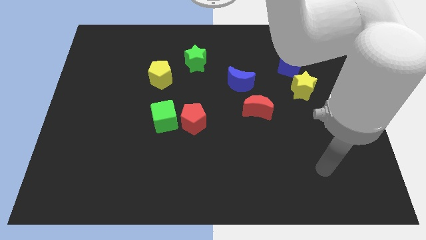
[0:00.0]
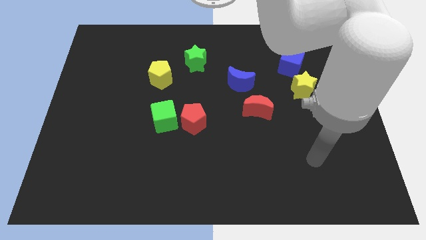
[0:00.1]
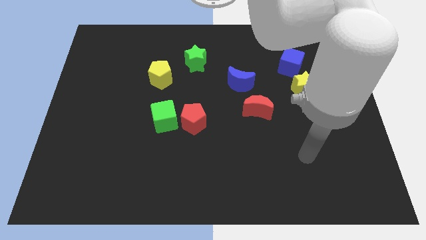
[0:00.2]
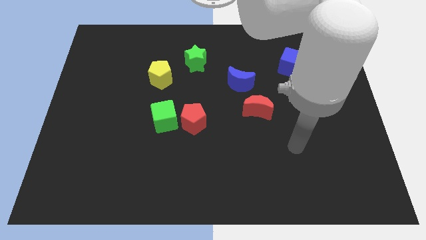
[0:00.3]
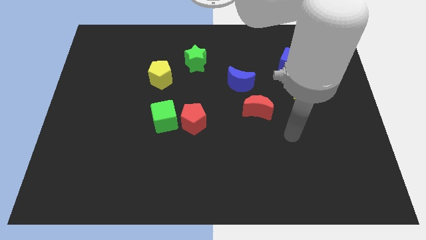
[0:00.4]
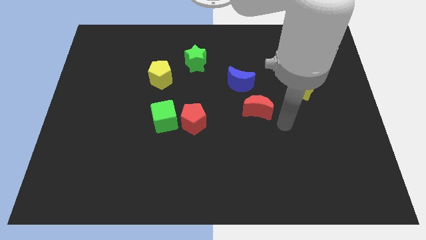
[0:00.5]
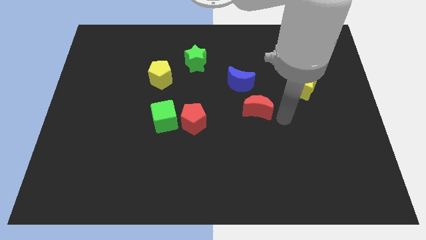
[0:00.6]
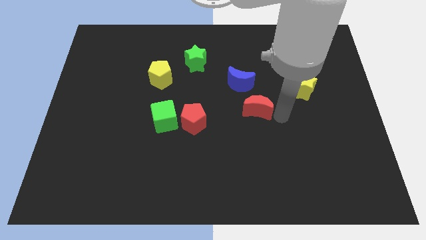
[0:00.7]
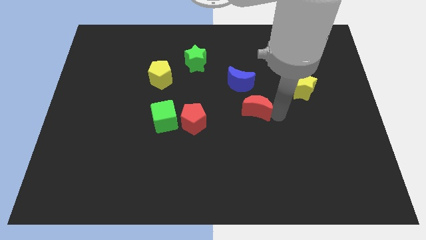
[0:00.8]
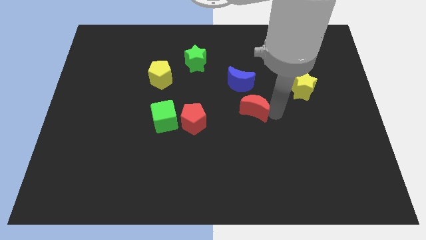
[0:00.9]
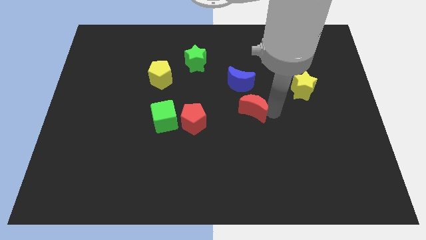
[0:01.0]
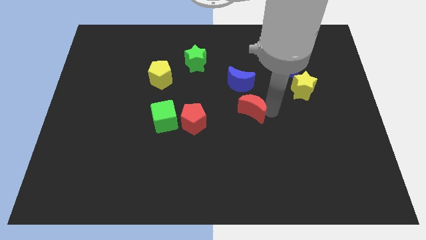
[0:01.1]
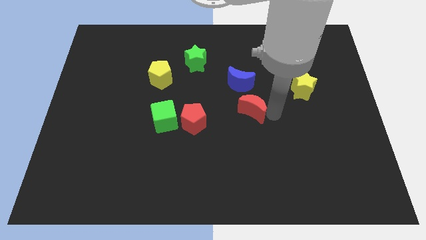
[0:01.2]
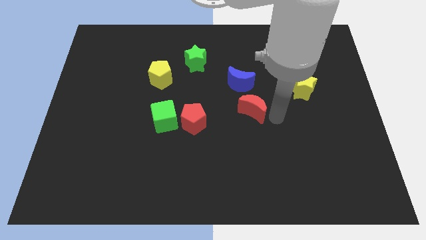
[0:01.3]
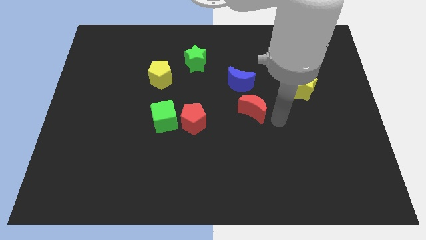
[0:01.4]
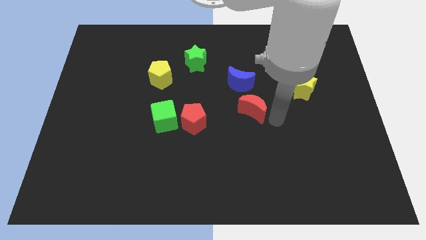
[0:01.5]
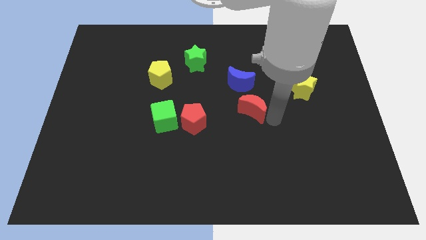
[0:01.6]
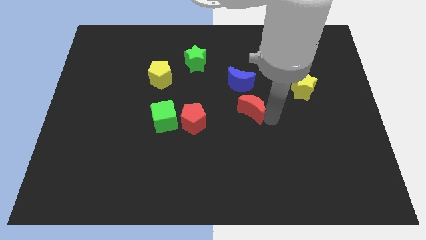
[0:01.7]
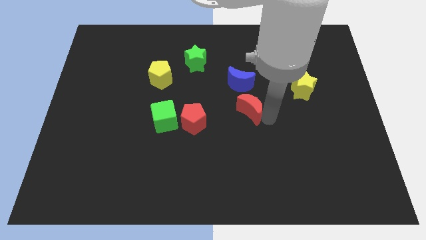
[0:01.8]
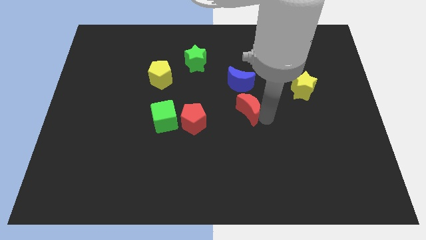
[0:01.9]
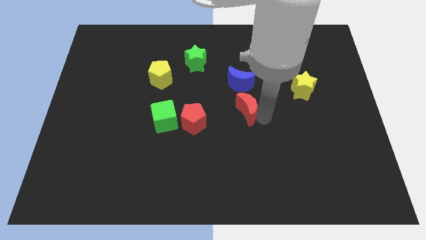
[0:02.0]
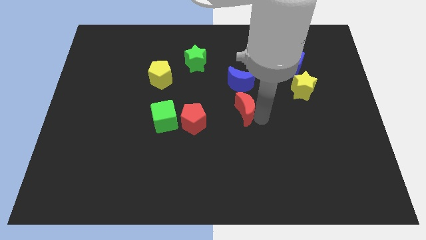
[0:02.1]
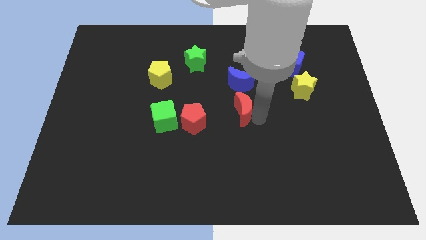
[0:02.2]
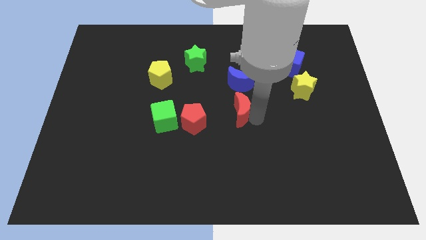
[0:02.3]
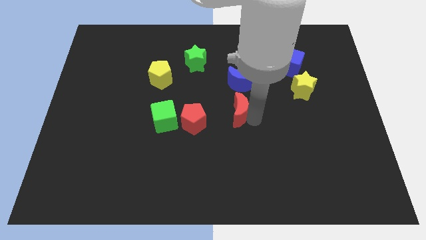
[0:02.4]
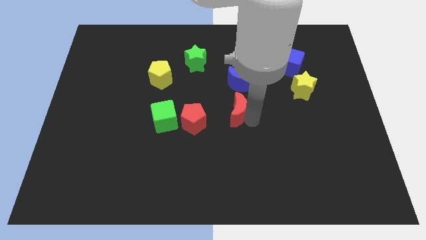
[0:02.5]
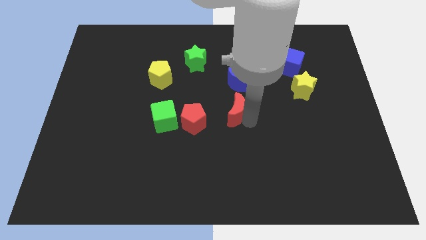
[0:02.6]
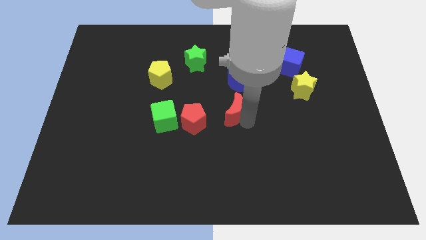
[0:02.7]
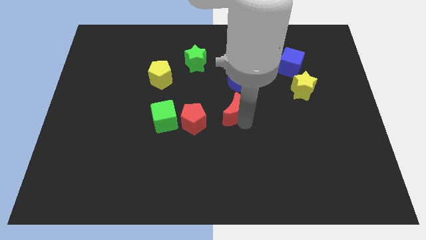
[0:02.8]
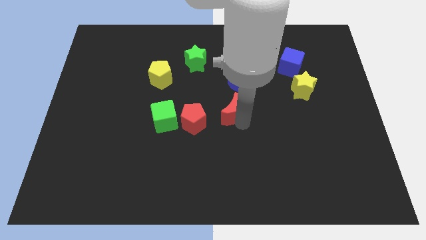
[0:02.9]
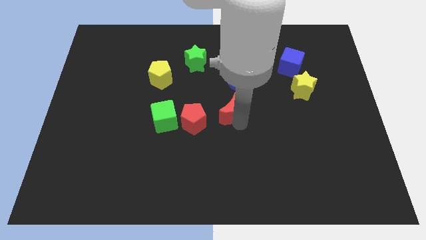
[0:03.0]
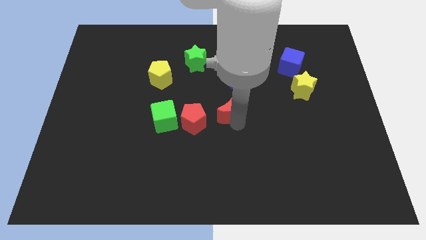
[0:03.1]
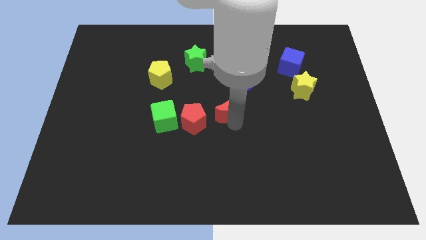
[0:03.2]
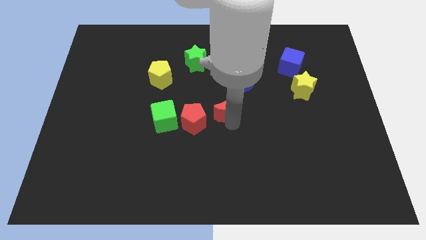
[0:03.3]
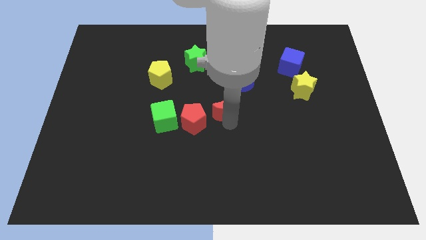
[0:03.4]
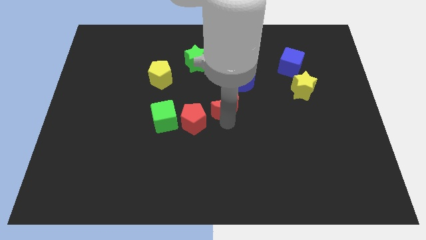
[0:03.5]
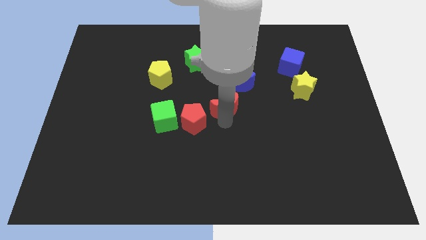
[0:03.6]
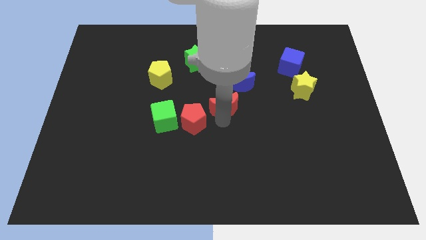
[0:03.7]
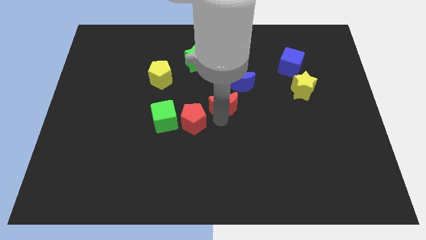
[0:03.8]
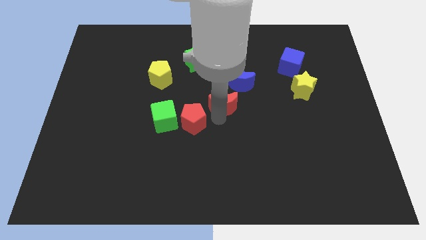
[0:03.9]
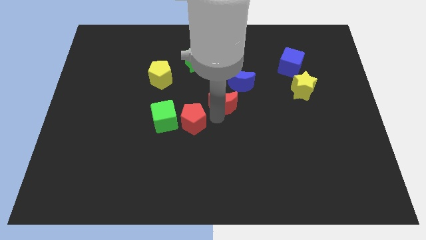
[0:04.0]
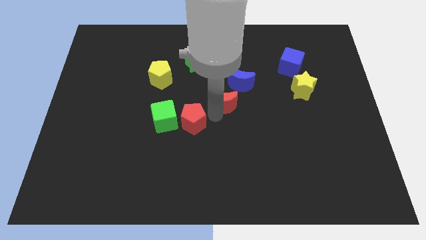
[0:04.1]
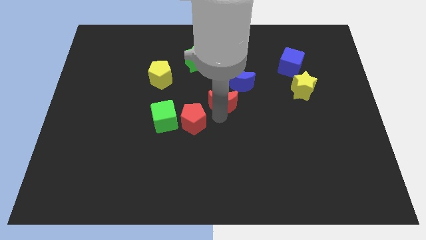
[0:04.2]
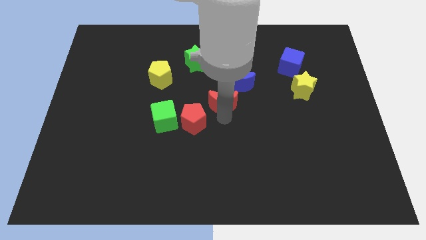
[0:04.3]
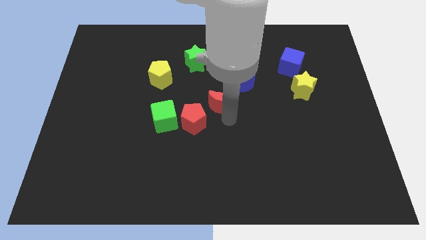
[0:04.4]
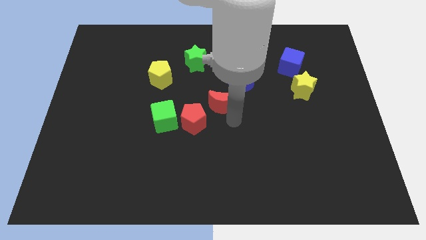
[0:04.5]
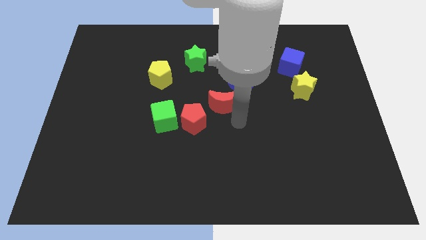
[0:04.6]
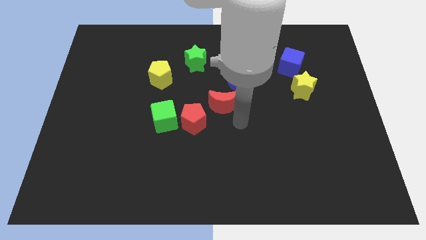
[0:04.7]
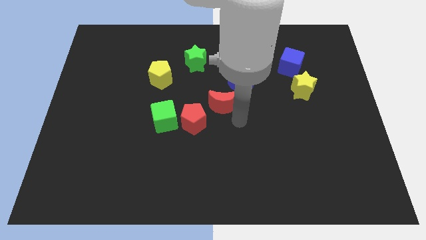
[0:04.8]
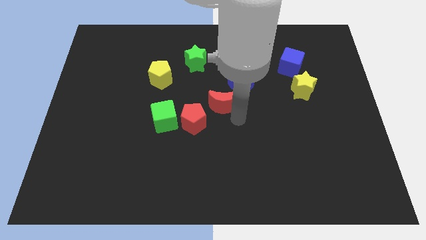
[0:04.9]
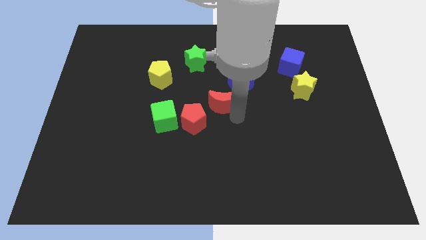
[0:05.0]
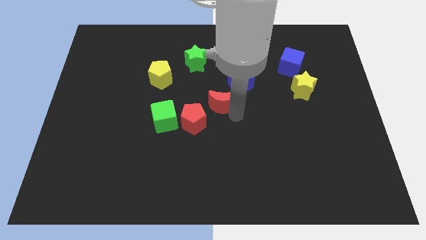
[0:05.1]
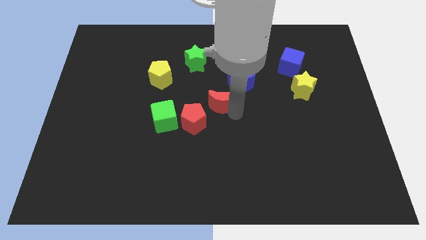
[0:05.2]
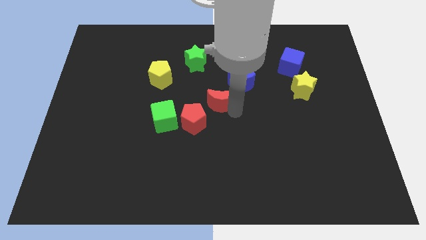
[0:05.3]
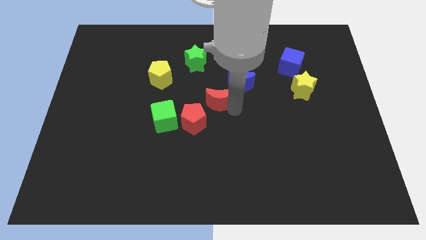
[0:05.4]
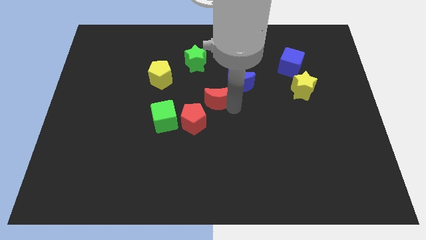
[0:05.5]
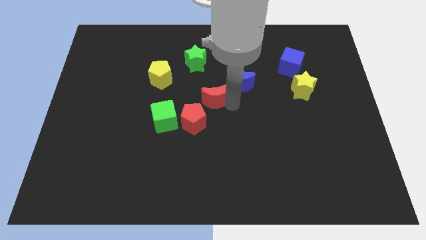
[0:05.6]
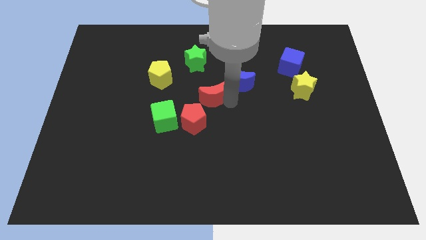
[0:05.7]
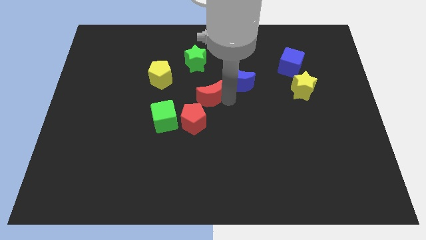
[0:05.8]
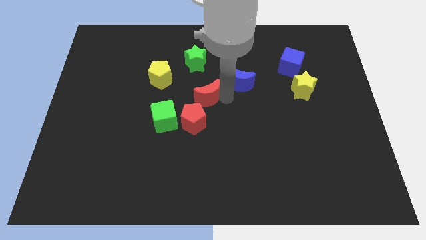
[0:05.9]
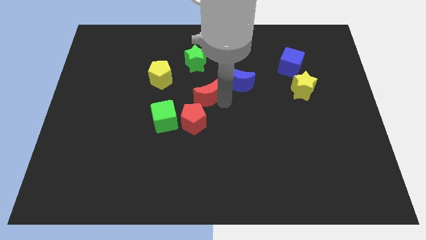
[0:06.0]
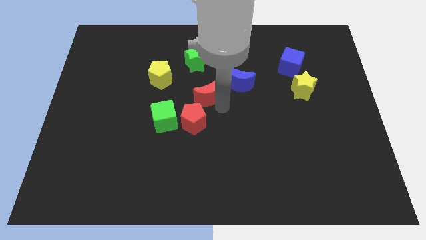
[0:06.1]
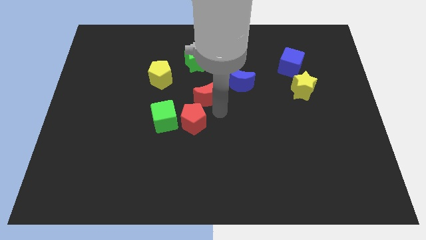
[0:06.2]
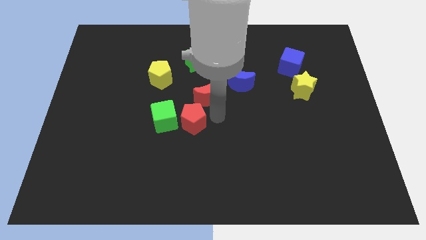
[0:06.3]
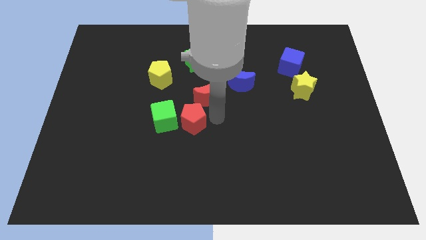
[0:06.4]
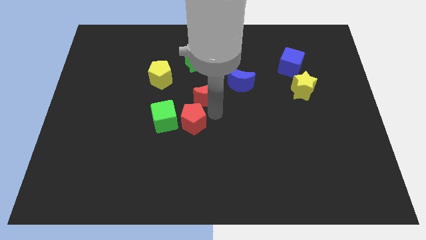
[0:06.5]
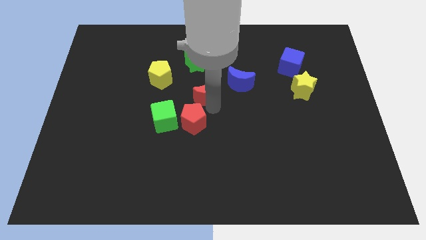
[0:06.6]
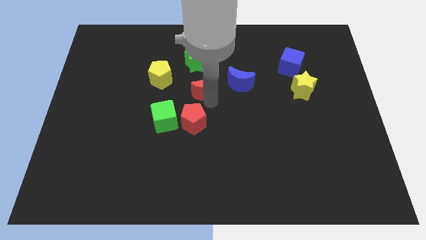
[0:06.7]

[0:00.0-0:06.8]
push the red moon to the right side of the yellow pentagon

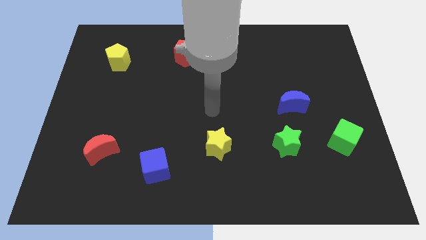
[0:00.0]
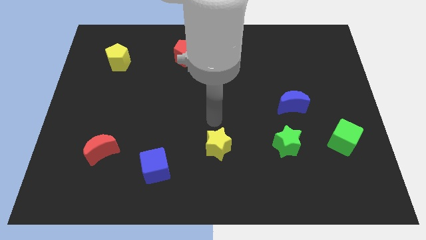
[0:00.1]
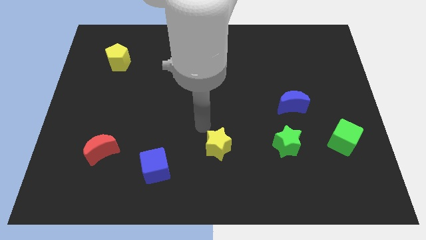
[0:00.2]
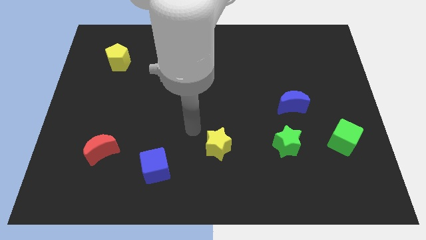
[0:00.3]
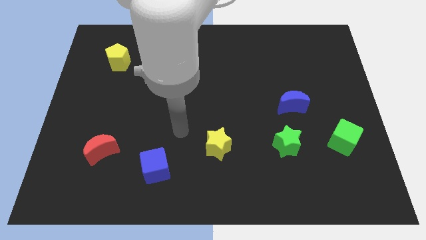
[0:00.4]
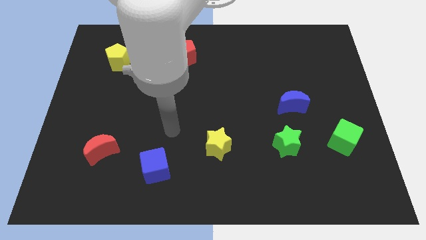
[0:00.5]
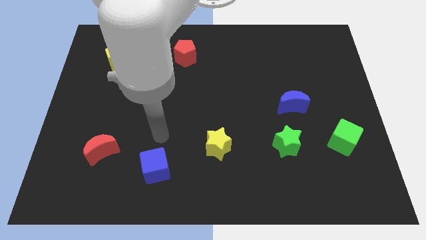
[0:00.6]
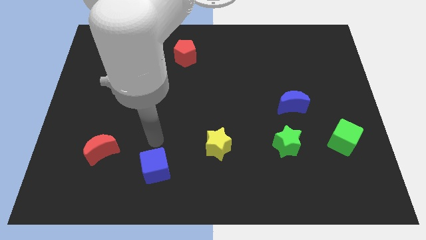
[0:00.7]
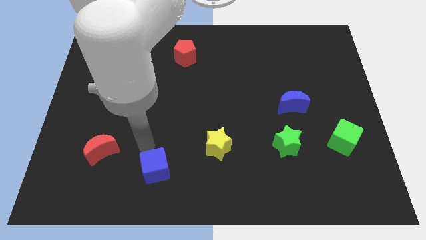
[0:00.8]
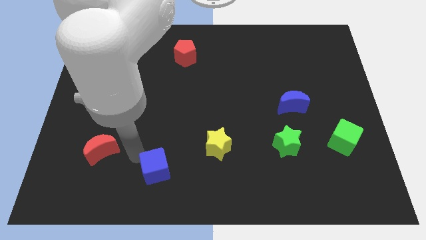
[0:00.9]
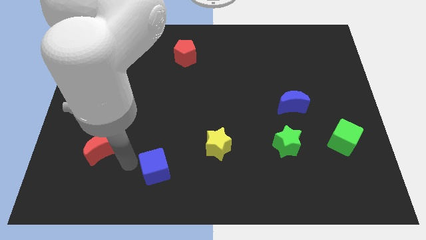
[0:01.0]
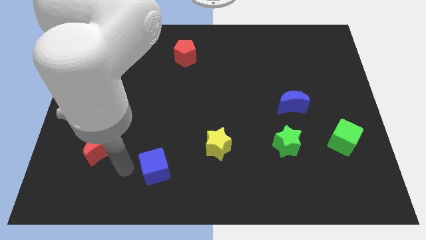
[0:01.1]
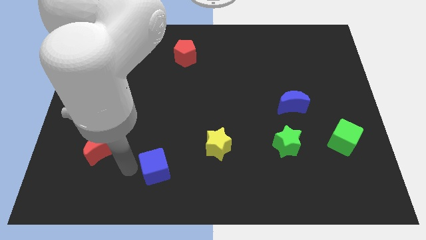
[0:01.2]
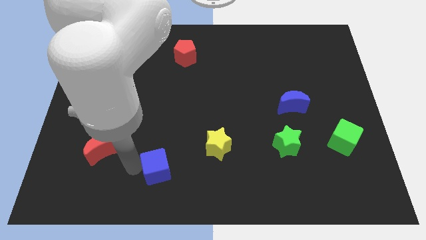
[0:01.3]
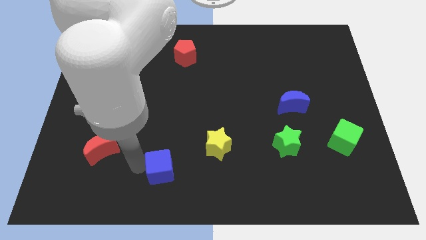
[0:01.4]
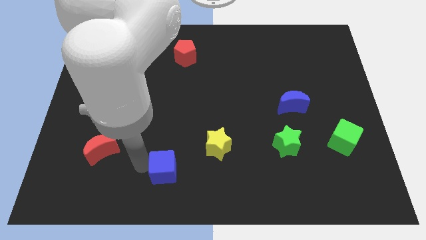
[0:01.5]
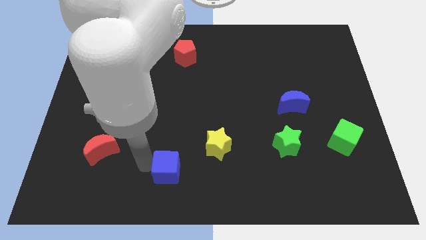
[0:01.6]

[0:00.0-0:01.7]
put the blue cube diagonally down and to the left of the yellow star
